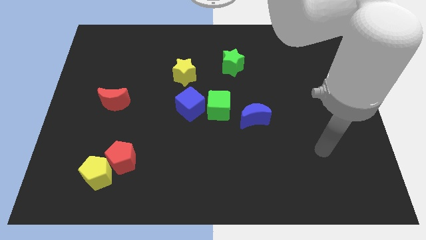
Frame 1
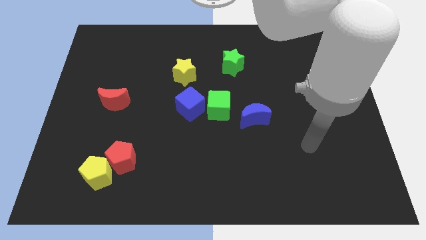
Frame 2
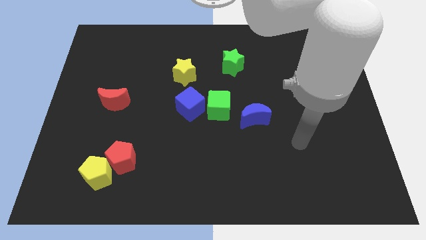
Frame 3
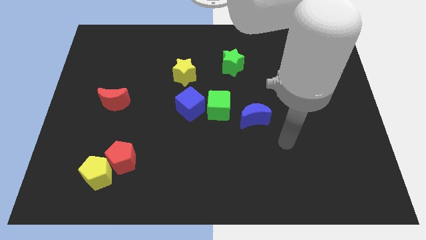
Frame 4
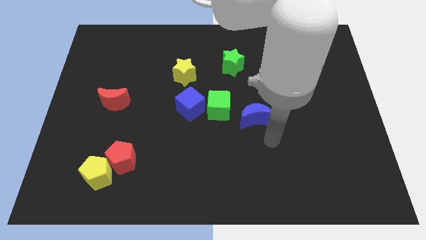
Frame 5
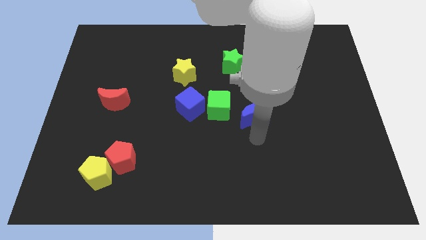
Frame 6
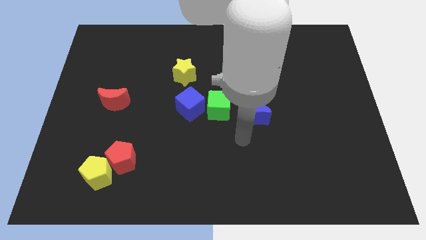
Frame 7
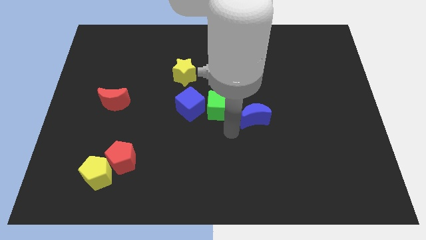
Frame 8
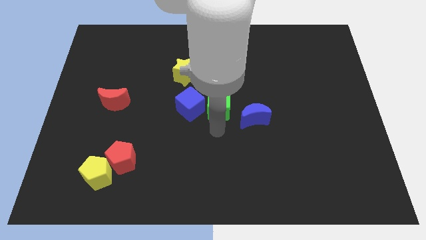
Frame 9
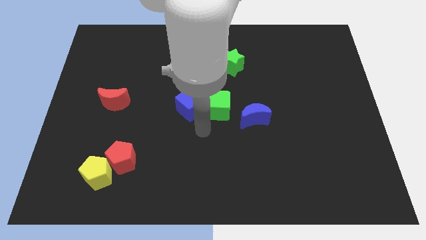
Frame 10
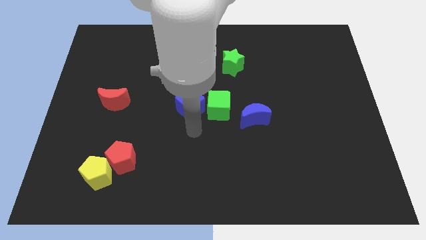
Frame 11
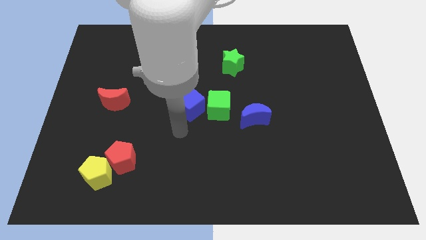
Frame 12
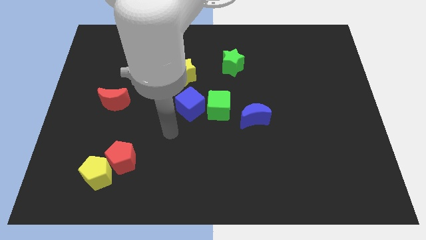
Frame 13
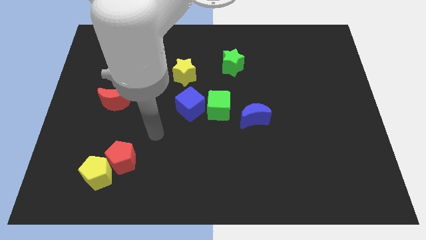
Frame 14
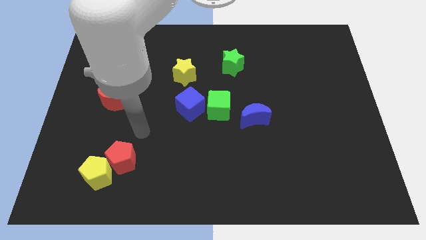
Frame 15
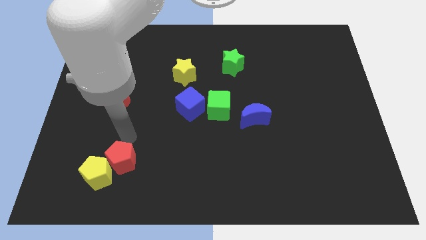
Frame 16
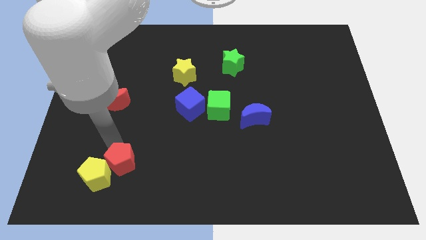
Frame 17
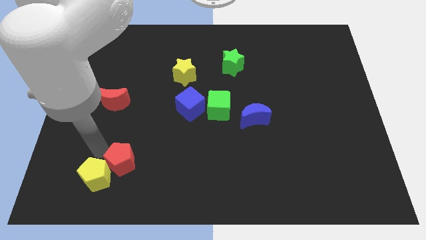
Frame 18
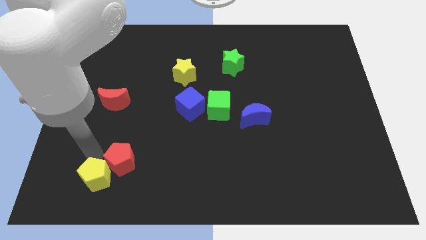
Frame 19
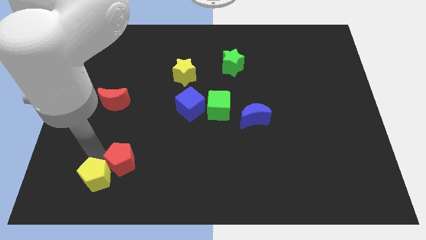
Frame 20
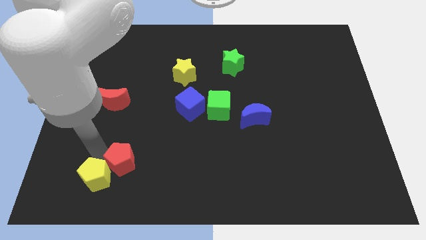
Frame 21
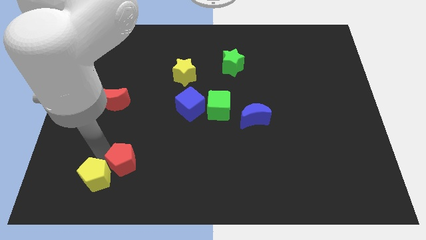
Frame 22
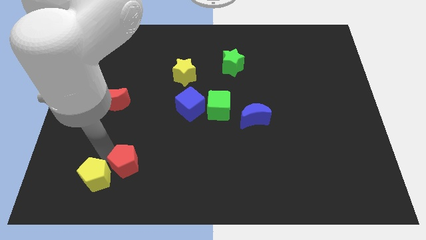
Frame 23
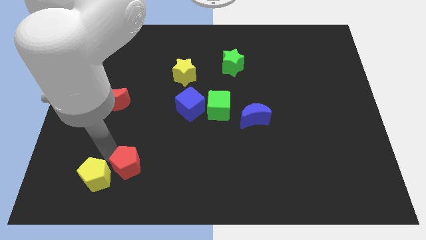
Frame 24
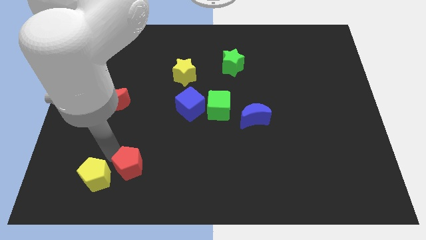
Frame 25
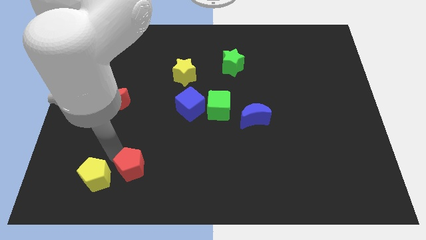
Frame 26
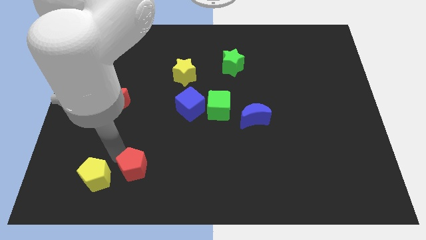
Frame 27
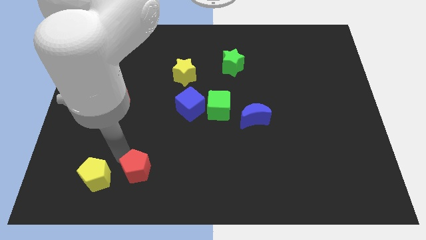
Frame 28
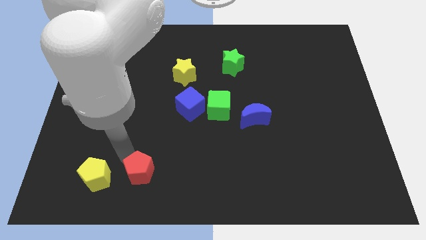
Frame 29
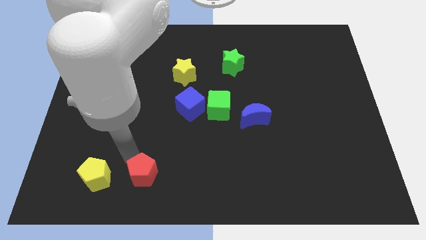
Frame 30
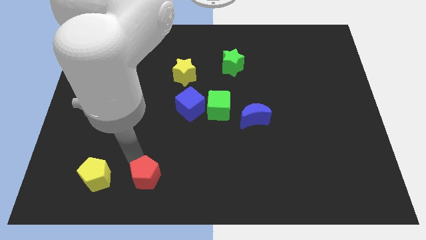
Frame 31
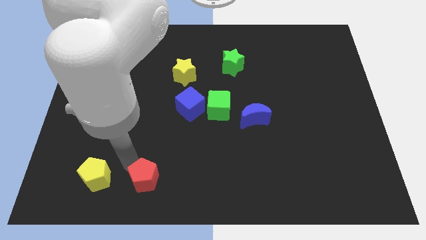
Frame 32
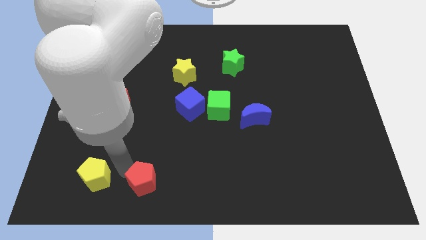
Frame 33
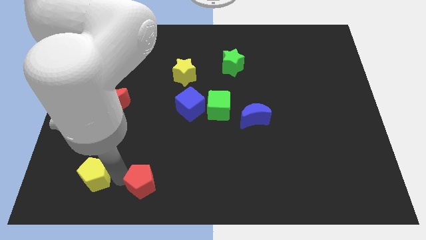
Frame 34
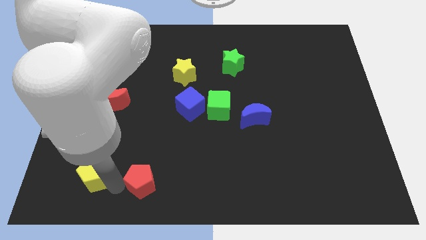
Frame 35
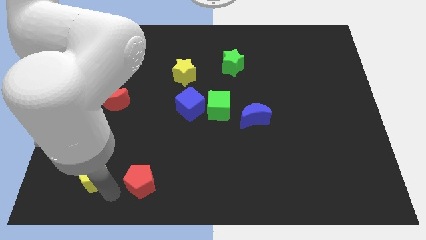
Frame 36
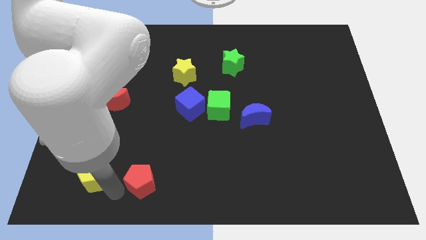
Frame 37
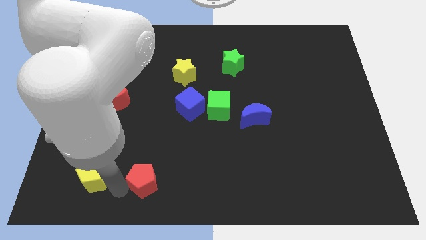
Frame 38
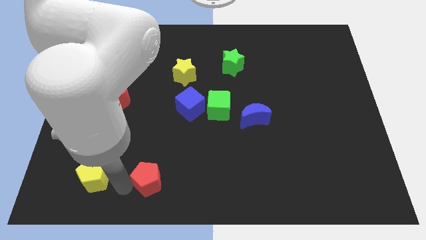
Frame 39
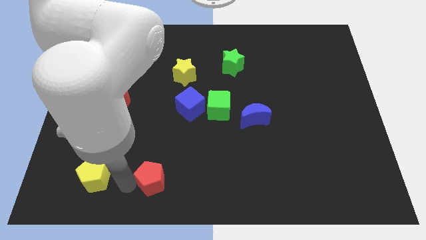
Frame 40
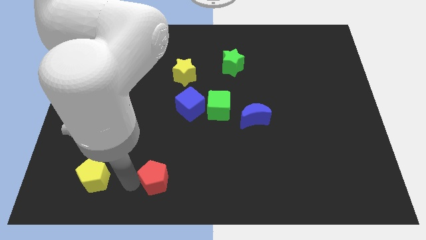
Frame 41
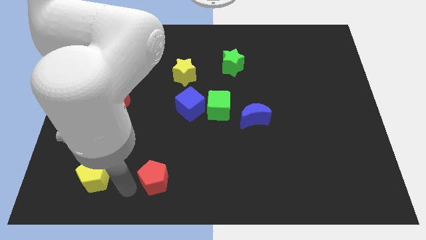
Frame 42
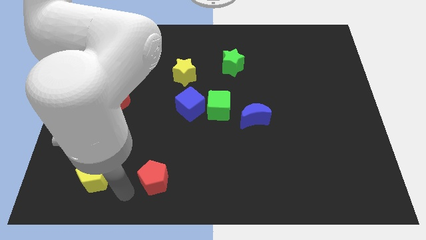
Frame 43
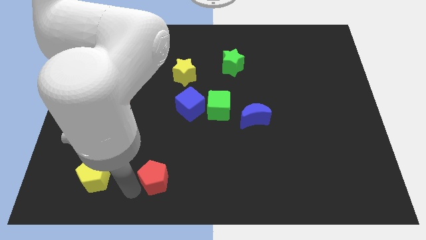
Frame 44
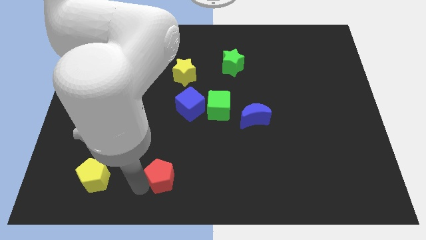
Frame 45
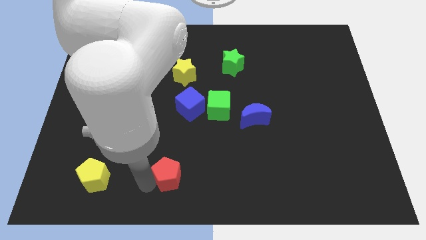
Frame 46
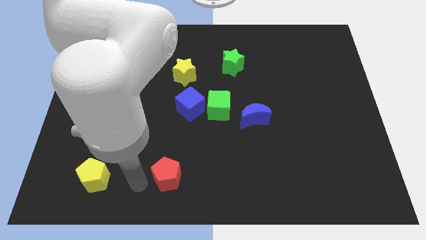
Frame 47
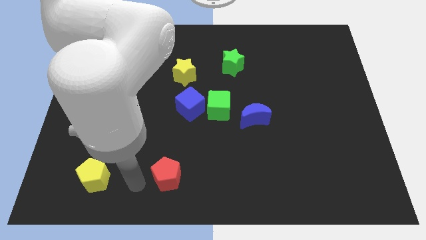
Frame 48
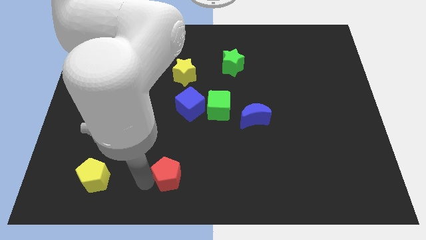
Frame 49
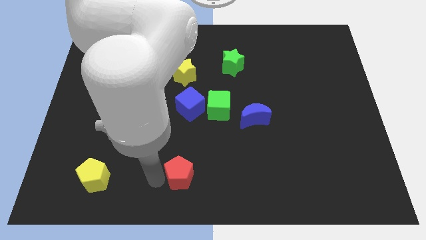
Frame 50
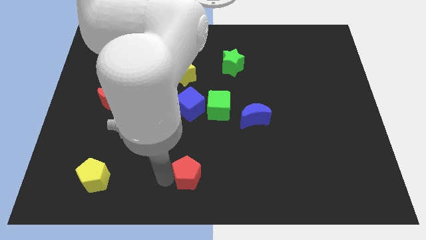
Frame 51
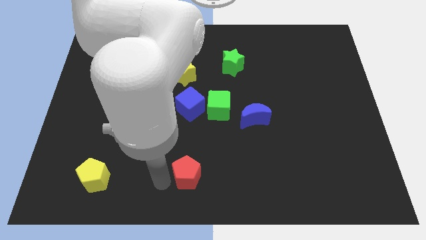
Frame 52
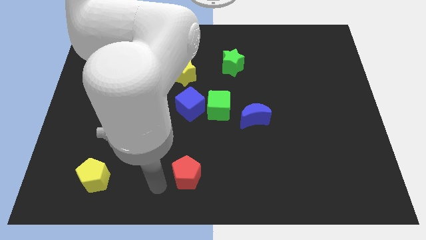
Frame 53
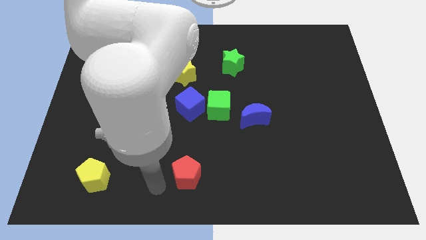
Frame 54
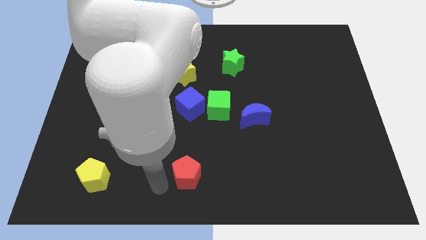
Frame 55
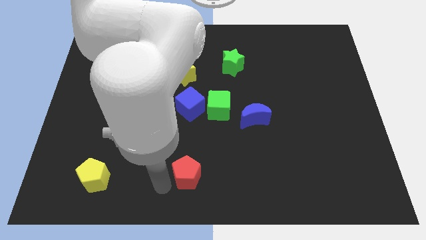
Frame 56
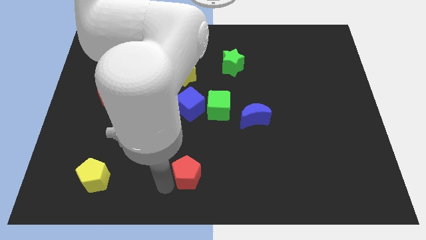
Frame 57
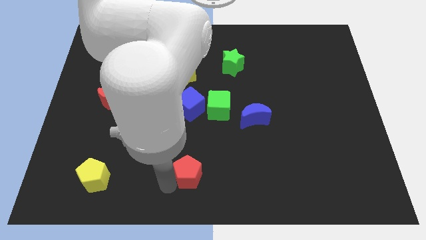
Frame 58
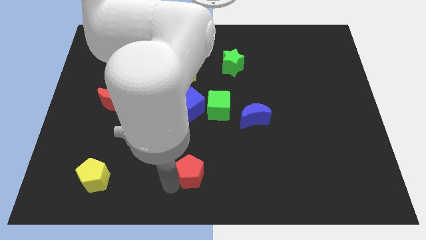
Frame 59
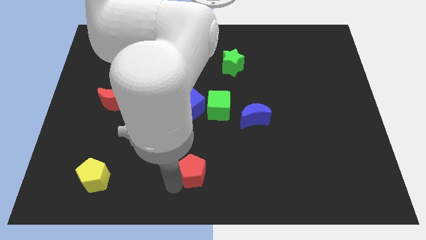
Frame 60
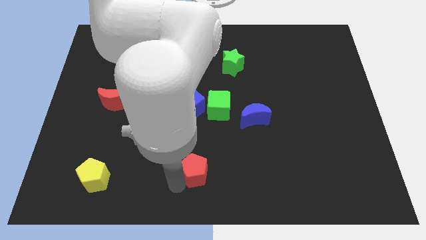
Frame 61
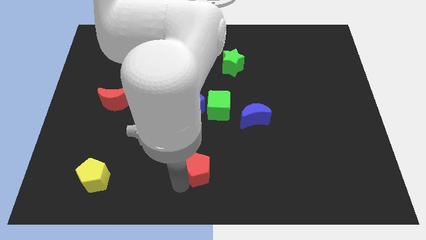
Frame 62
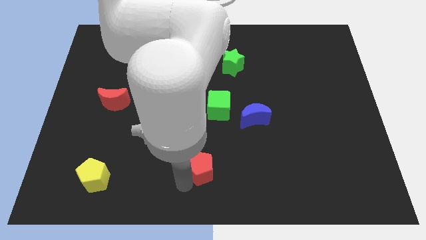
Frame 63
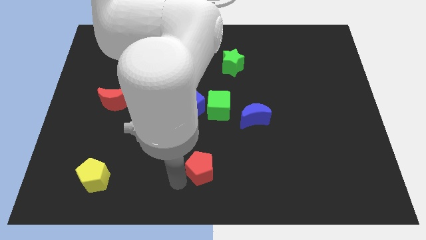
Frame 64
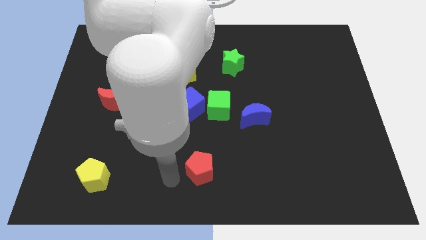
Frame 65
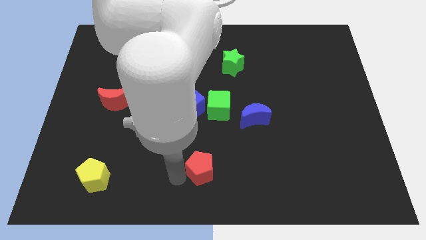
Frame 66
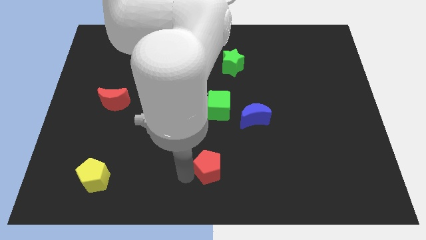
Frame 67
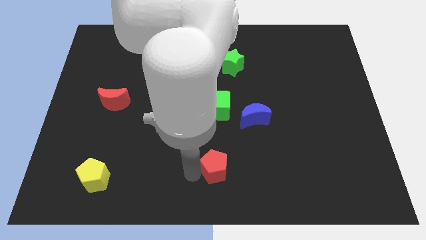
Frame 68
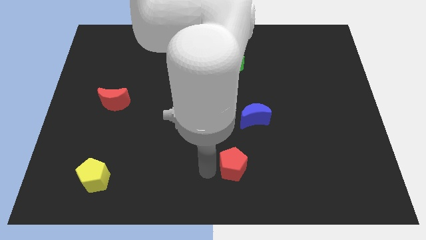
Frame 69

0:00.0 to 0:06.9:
push the red pentagon to the right

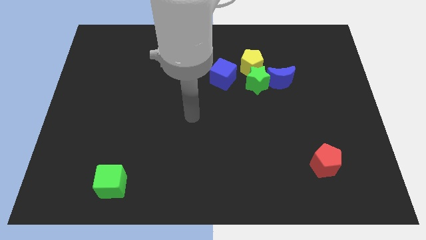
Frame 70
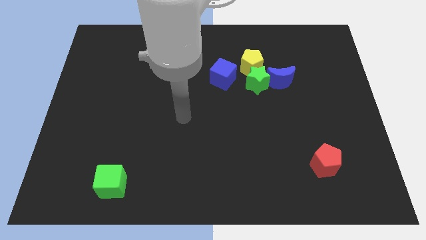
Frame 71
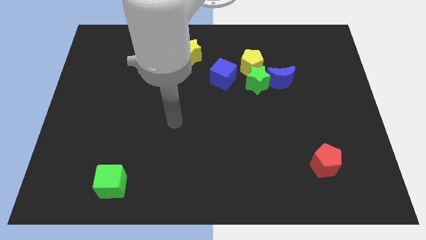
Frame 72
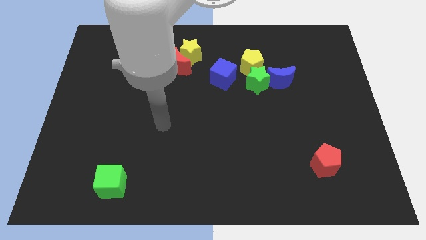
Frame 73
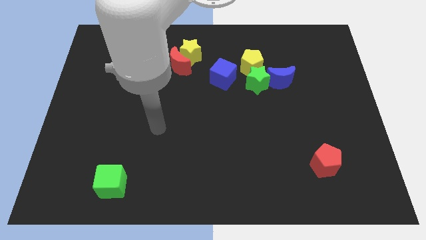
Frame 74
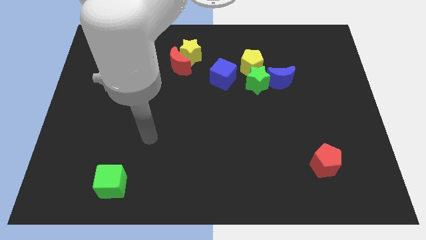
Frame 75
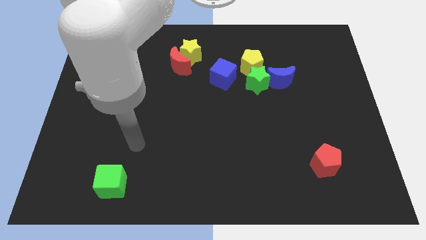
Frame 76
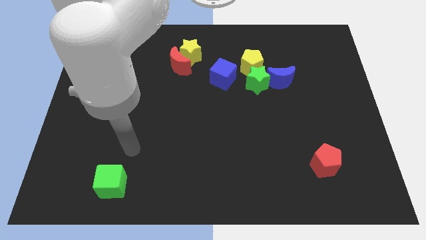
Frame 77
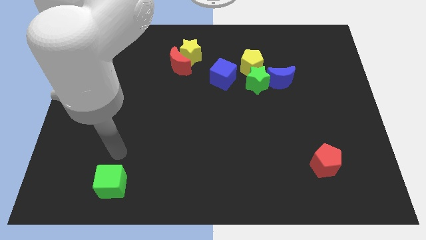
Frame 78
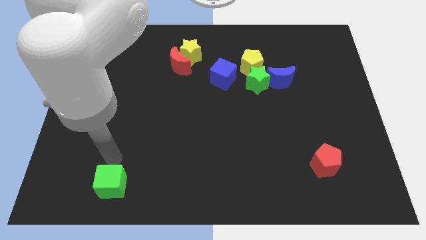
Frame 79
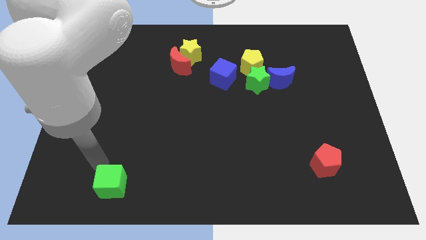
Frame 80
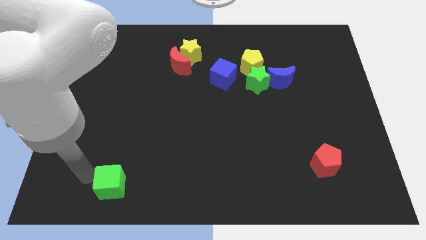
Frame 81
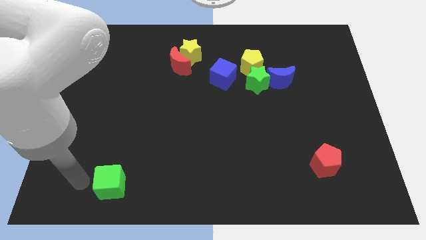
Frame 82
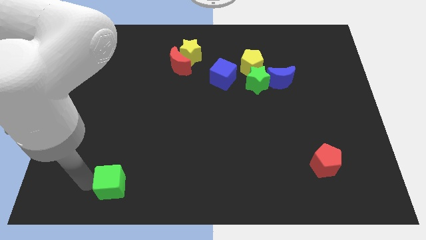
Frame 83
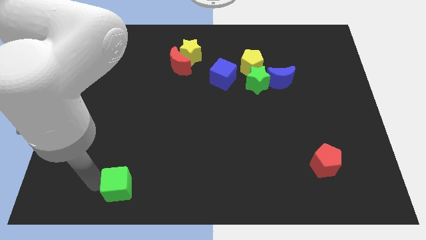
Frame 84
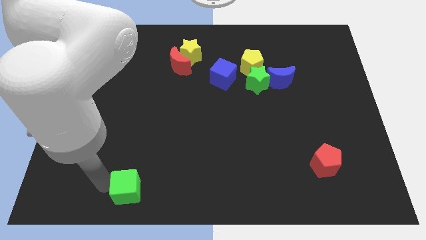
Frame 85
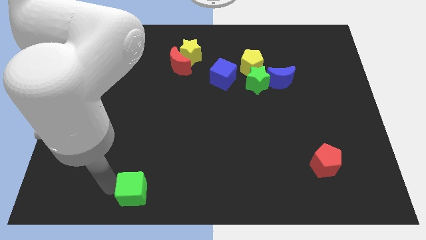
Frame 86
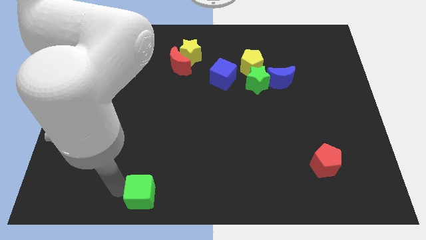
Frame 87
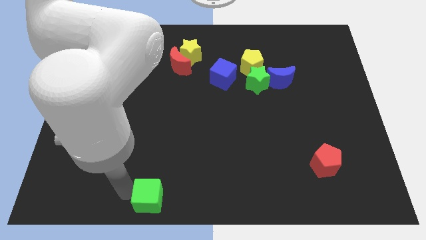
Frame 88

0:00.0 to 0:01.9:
push the green cube to the right a bit
